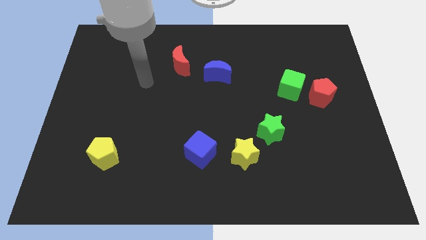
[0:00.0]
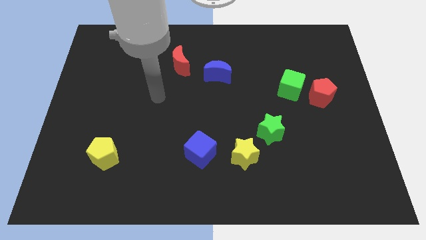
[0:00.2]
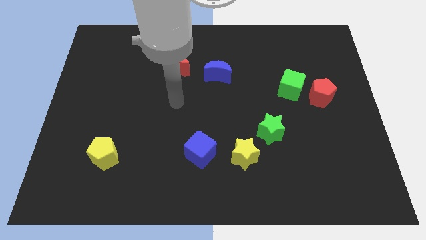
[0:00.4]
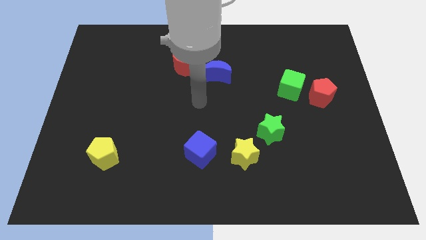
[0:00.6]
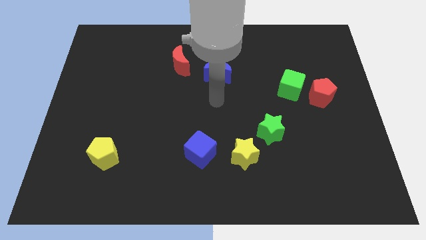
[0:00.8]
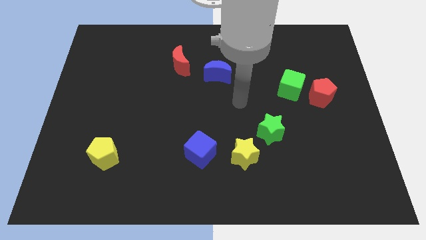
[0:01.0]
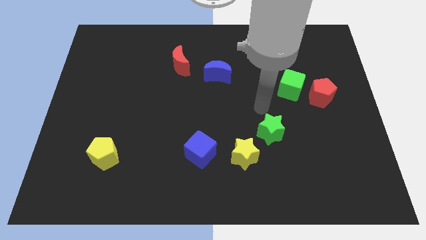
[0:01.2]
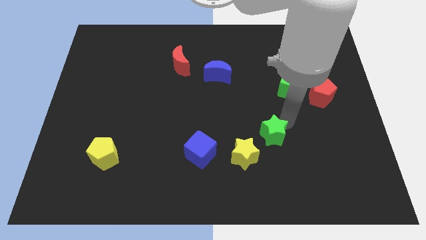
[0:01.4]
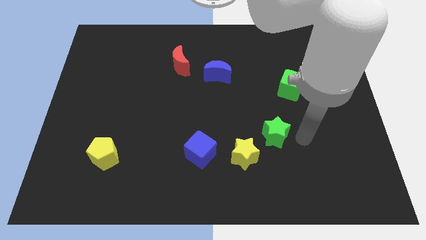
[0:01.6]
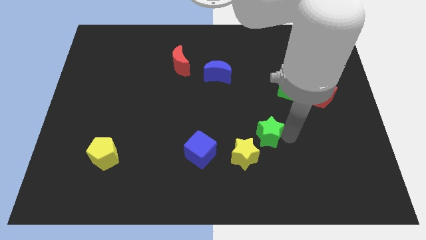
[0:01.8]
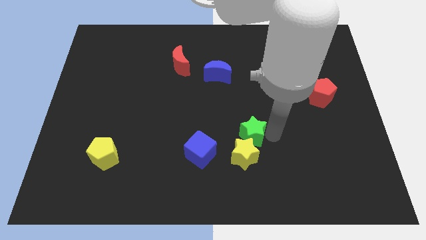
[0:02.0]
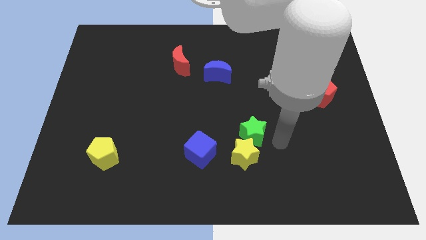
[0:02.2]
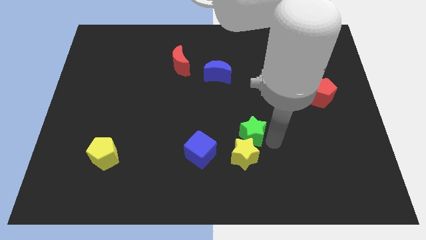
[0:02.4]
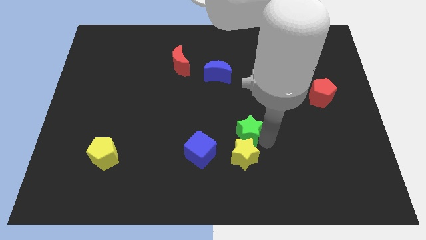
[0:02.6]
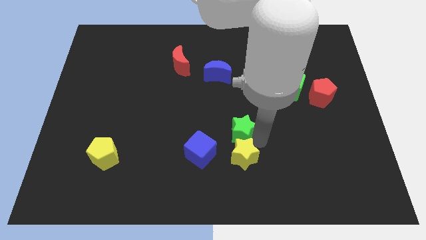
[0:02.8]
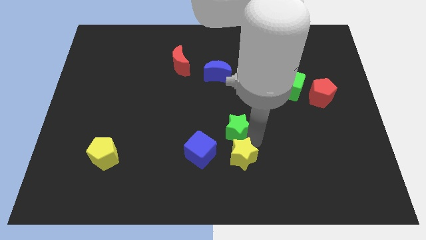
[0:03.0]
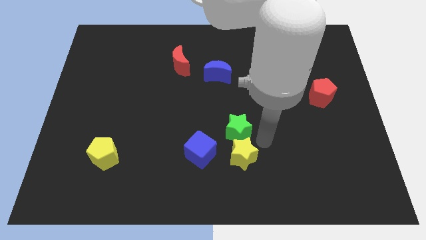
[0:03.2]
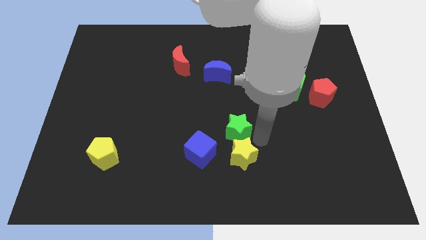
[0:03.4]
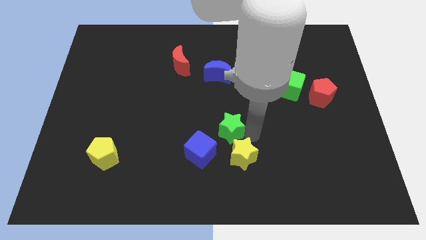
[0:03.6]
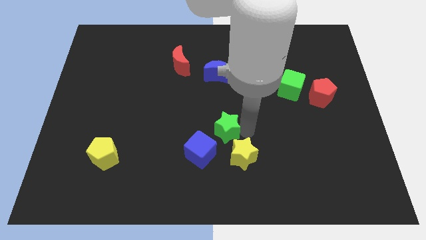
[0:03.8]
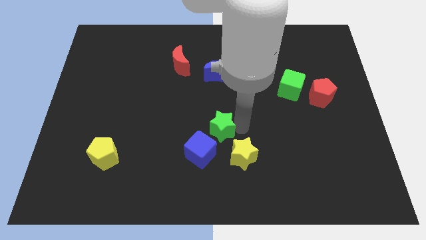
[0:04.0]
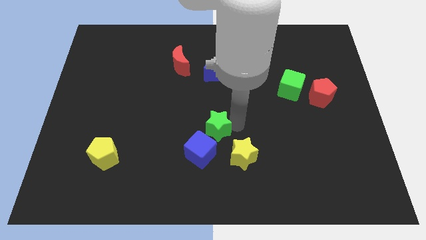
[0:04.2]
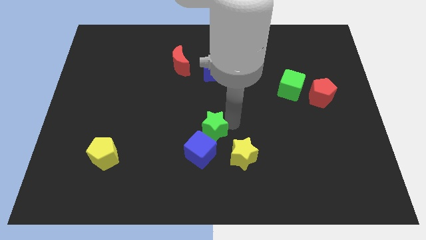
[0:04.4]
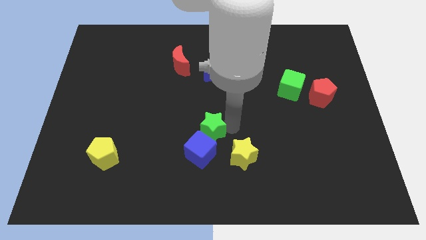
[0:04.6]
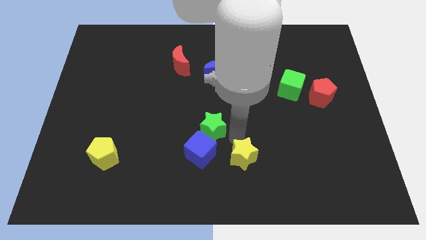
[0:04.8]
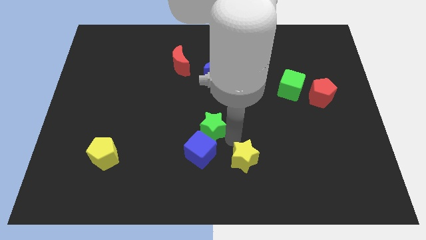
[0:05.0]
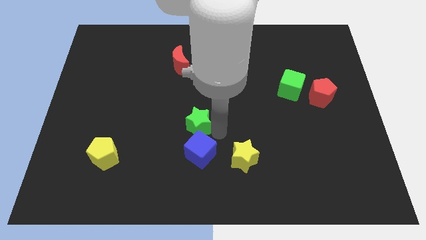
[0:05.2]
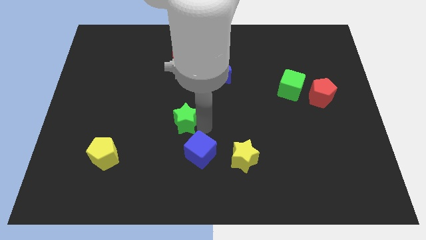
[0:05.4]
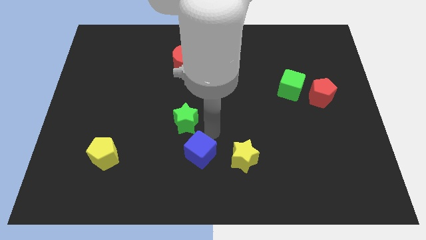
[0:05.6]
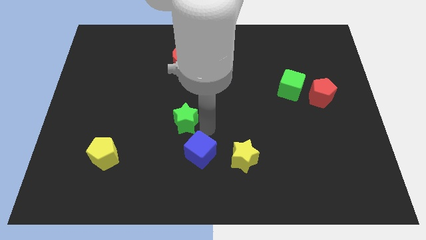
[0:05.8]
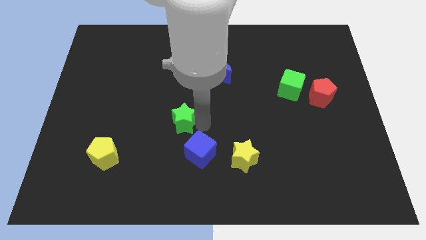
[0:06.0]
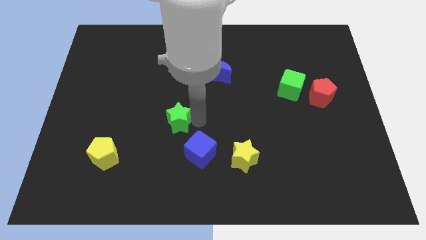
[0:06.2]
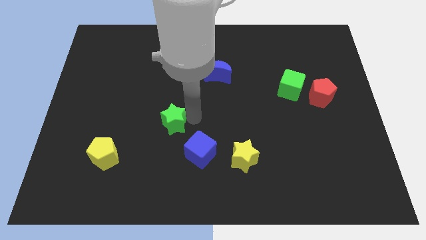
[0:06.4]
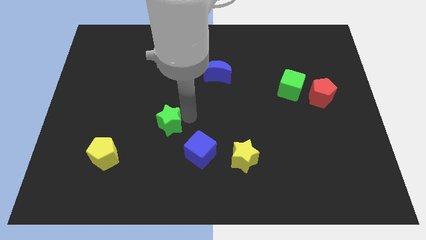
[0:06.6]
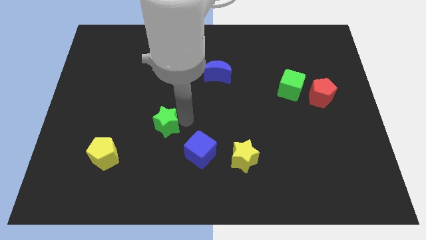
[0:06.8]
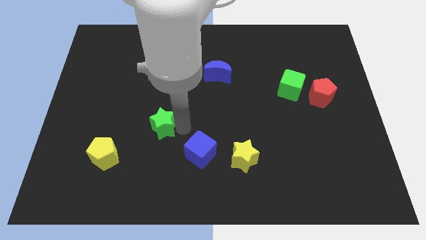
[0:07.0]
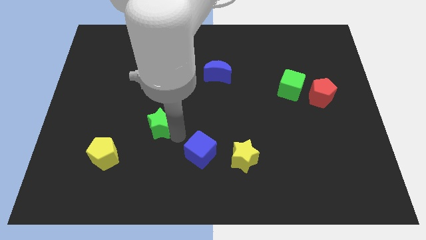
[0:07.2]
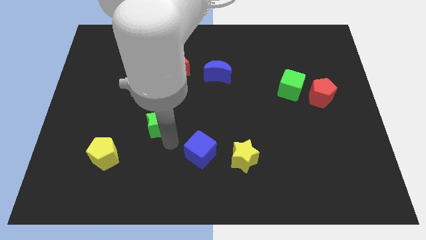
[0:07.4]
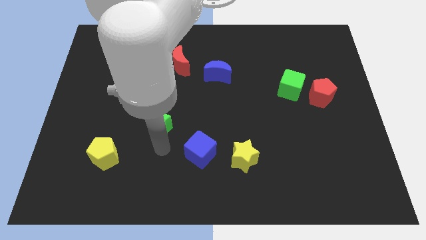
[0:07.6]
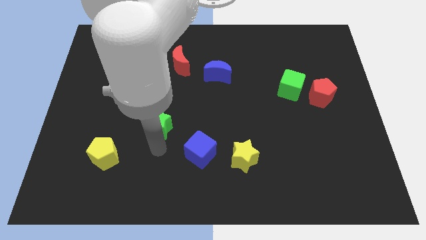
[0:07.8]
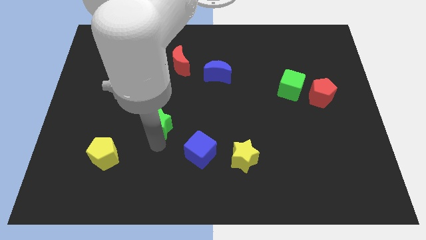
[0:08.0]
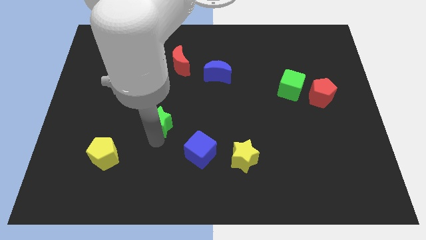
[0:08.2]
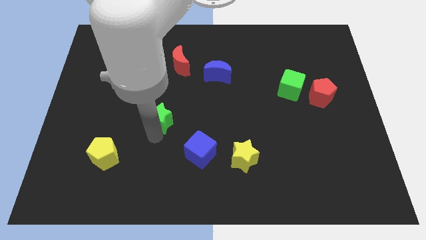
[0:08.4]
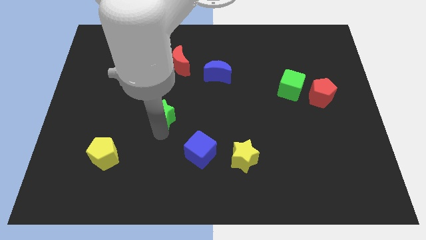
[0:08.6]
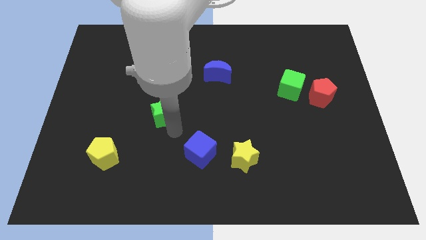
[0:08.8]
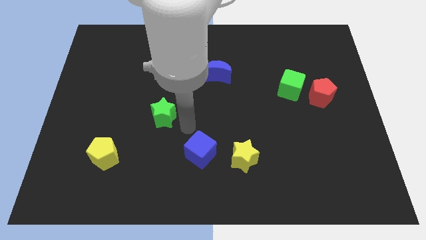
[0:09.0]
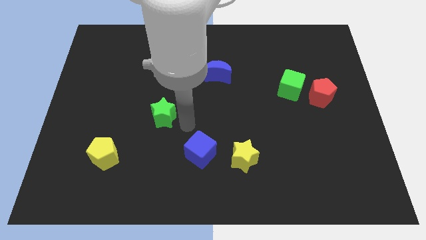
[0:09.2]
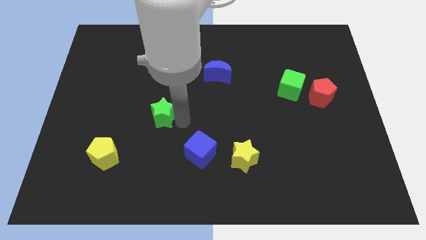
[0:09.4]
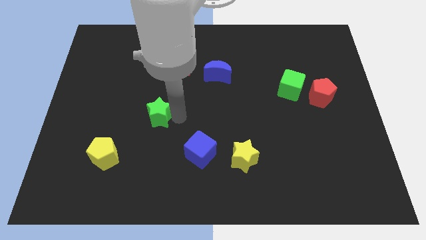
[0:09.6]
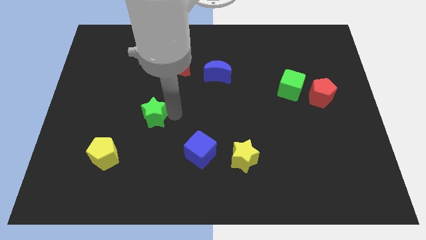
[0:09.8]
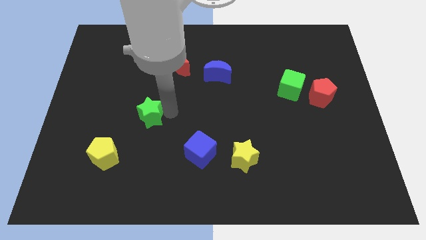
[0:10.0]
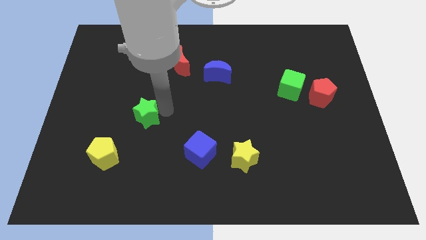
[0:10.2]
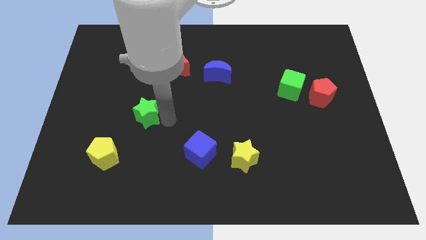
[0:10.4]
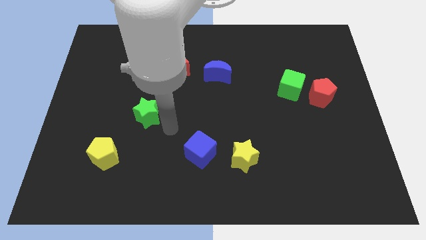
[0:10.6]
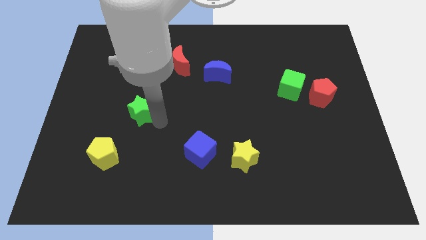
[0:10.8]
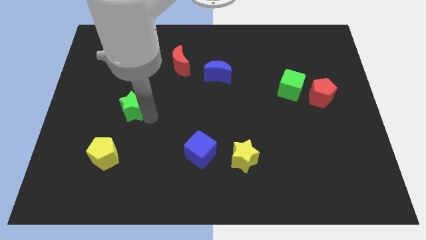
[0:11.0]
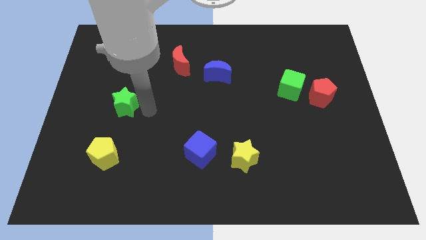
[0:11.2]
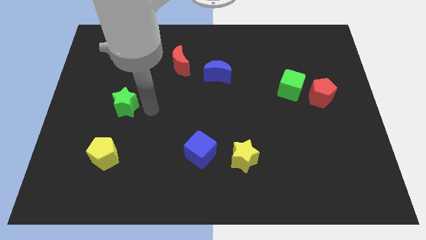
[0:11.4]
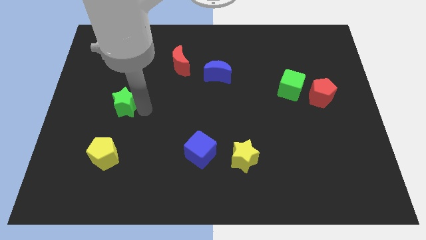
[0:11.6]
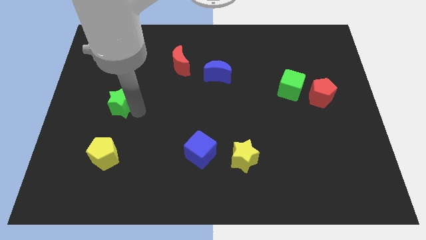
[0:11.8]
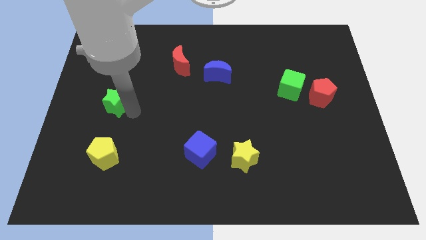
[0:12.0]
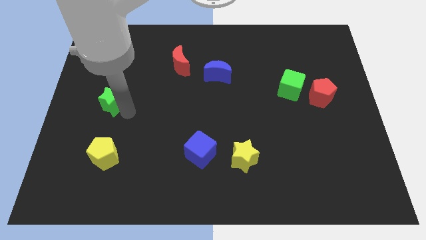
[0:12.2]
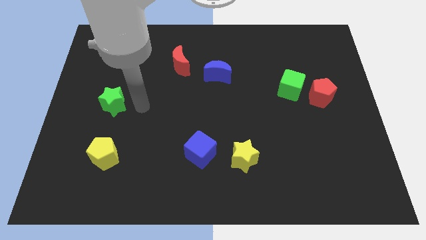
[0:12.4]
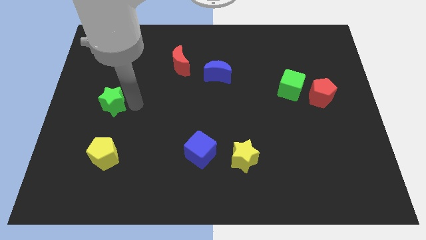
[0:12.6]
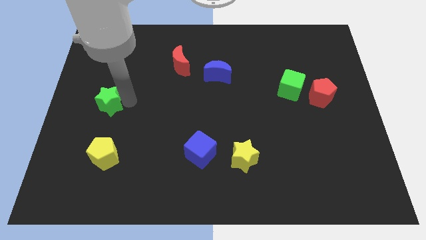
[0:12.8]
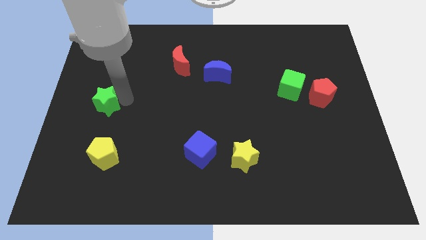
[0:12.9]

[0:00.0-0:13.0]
move the green star to the left side
